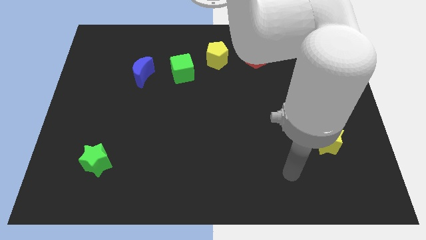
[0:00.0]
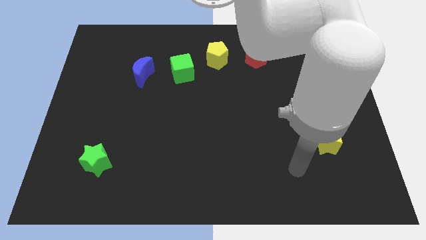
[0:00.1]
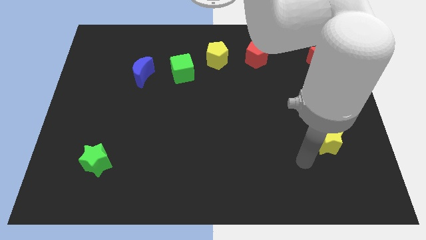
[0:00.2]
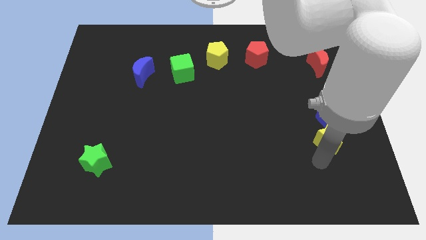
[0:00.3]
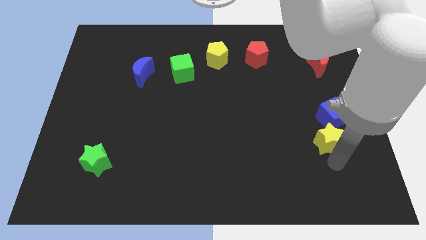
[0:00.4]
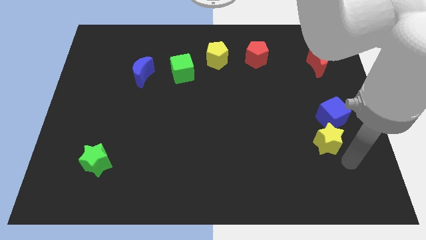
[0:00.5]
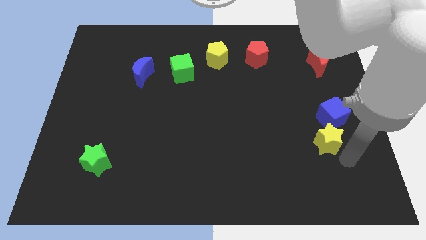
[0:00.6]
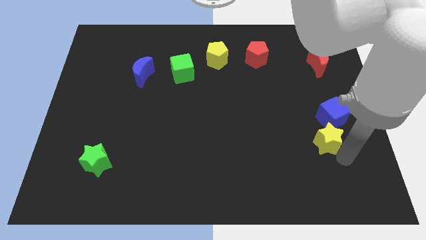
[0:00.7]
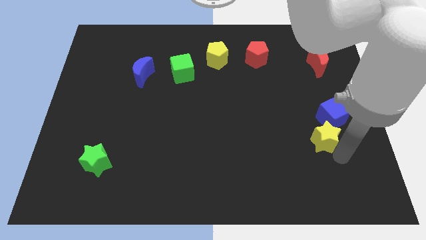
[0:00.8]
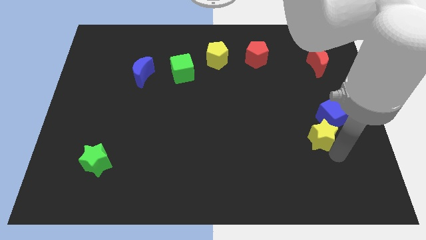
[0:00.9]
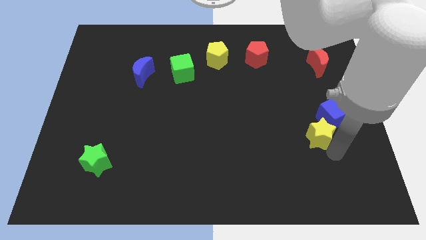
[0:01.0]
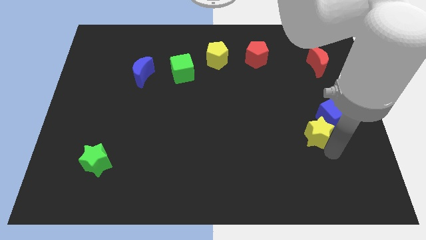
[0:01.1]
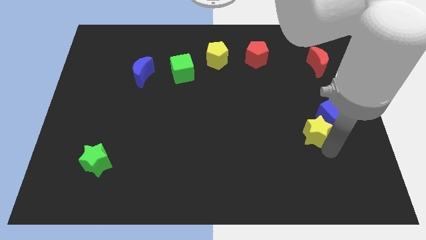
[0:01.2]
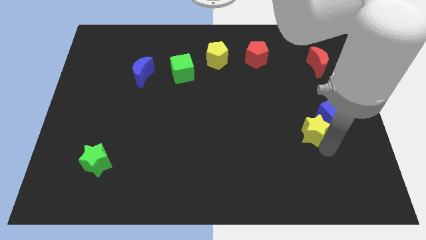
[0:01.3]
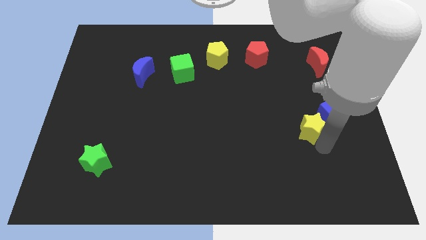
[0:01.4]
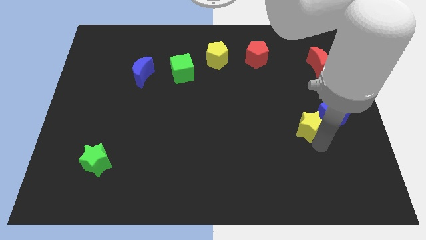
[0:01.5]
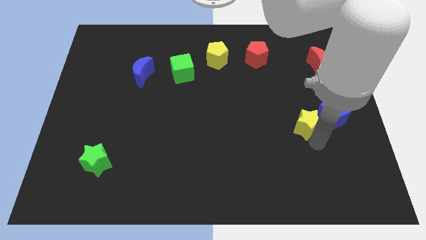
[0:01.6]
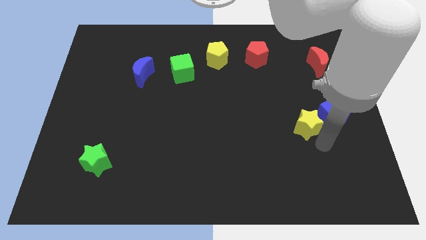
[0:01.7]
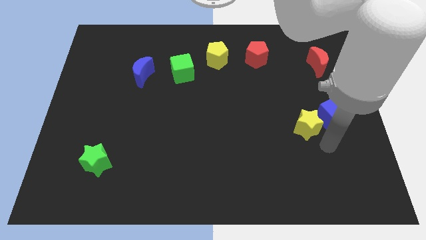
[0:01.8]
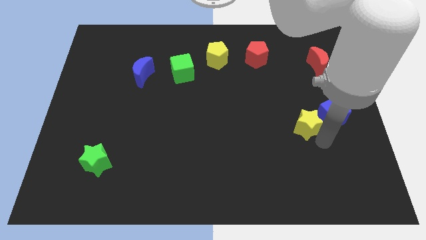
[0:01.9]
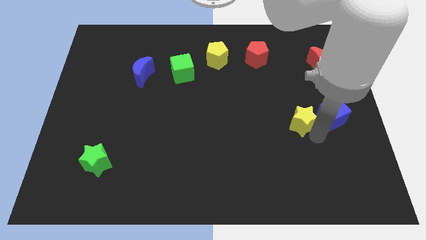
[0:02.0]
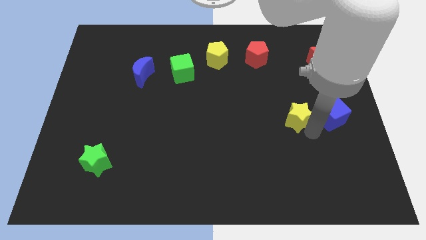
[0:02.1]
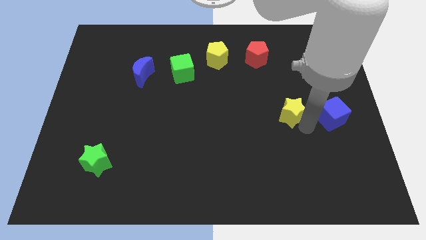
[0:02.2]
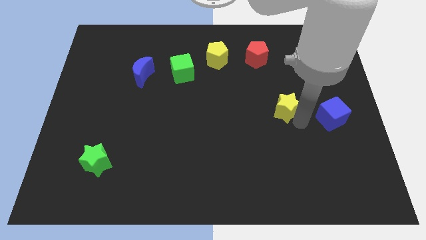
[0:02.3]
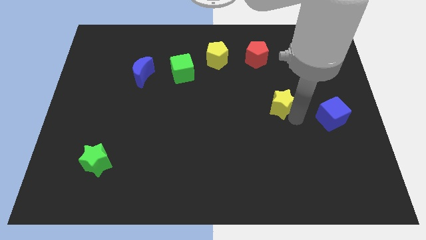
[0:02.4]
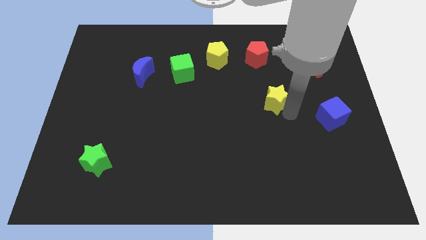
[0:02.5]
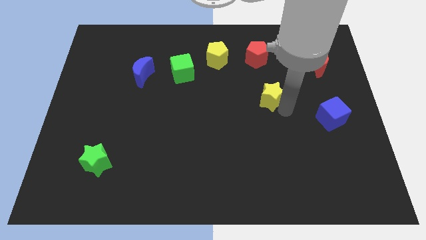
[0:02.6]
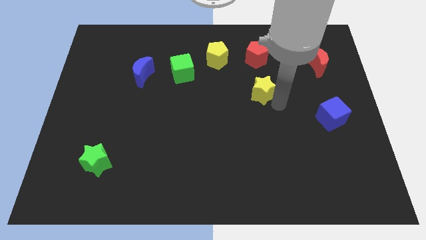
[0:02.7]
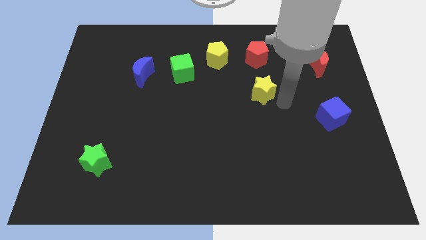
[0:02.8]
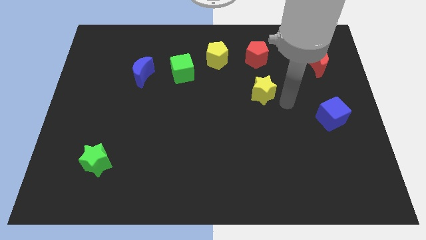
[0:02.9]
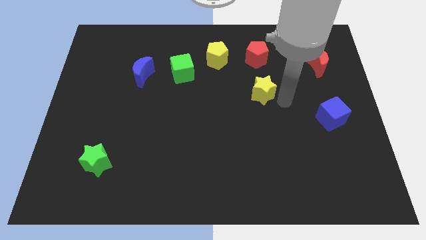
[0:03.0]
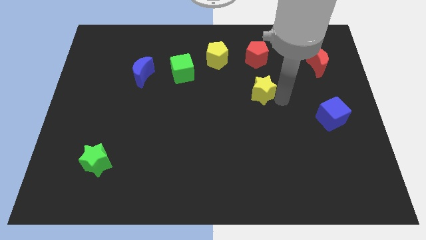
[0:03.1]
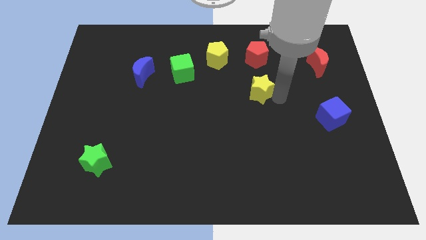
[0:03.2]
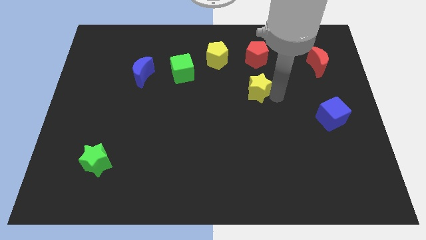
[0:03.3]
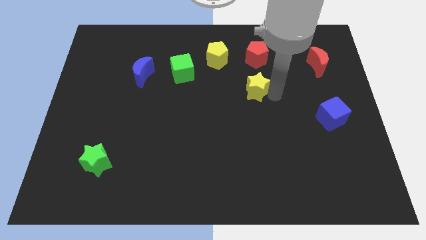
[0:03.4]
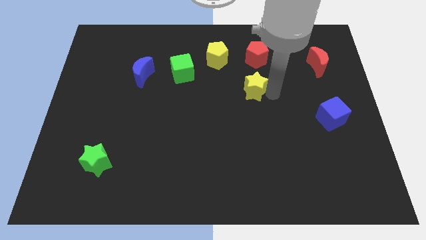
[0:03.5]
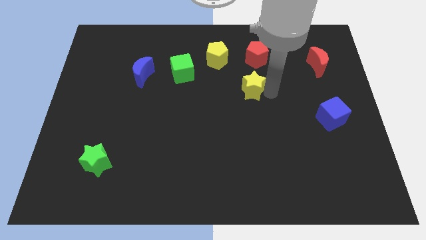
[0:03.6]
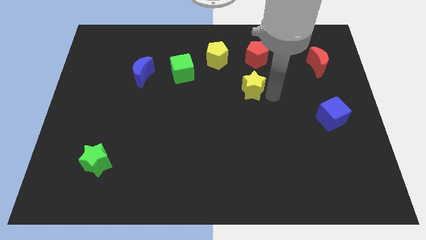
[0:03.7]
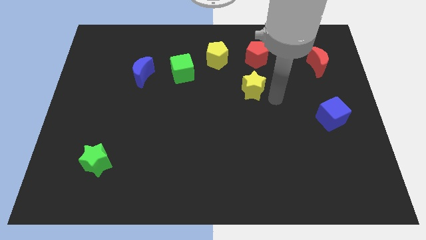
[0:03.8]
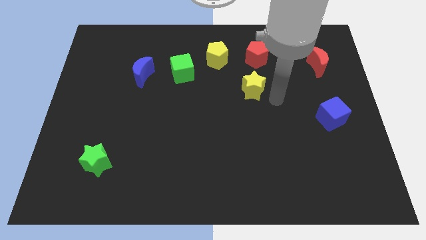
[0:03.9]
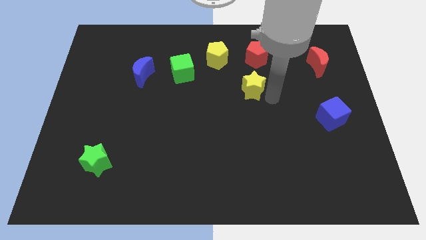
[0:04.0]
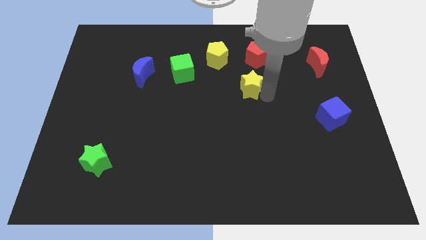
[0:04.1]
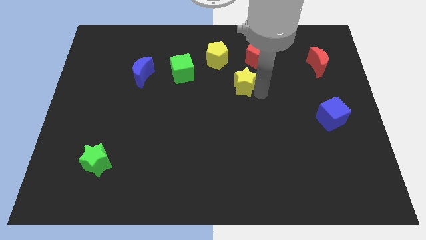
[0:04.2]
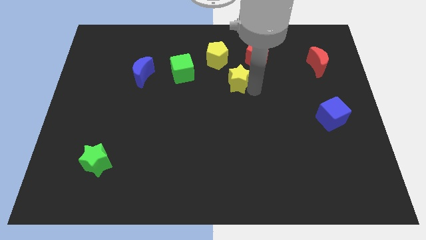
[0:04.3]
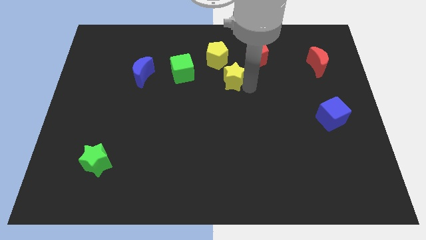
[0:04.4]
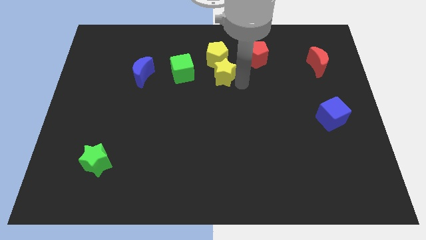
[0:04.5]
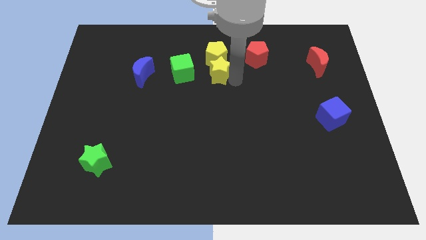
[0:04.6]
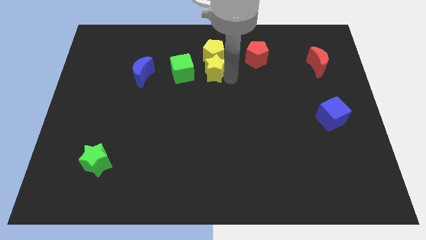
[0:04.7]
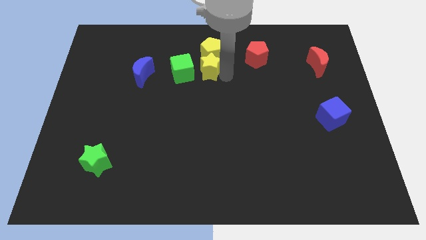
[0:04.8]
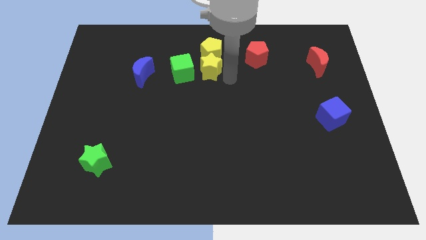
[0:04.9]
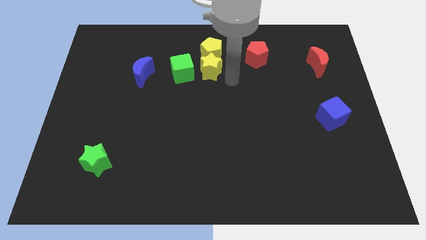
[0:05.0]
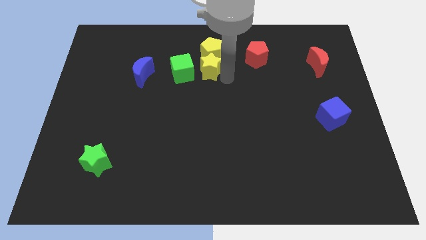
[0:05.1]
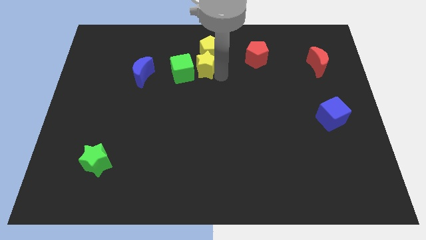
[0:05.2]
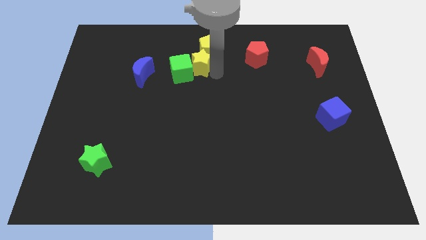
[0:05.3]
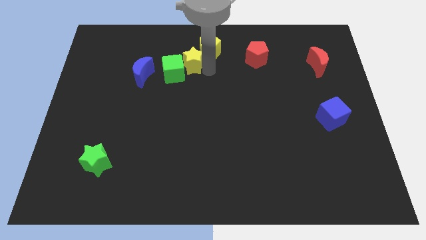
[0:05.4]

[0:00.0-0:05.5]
move the yellow star just left of the yellow pentagon

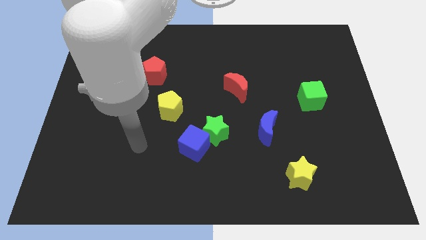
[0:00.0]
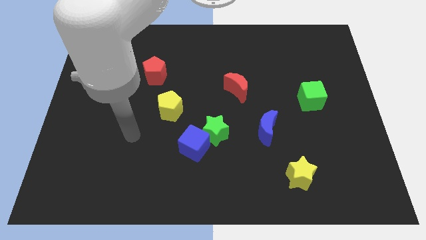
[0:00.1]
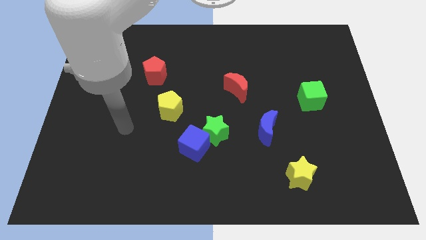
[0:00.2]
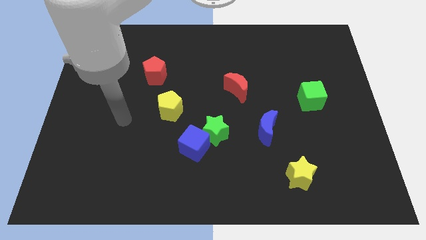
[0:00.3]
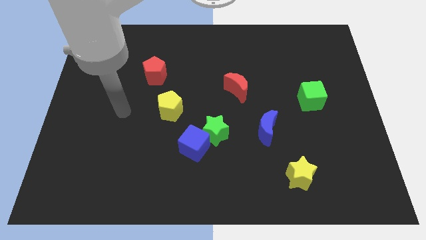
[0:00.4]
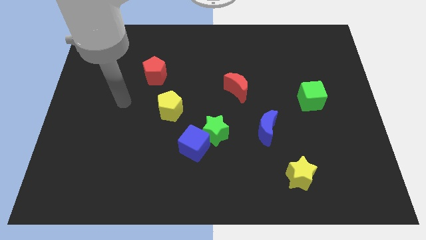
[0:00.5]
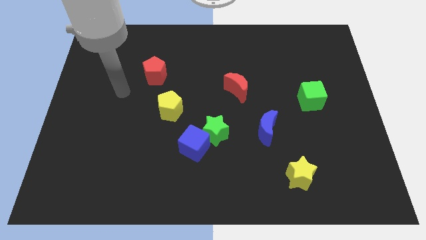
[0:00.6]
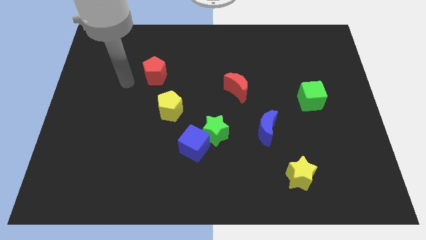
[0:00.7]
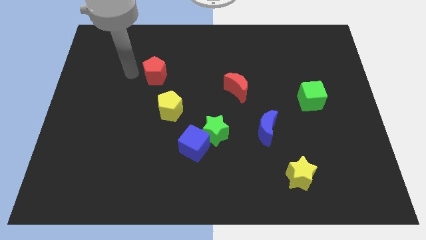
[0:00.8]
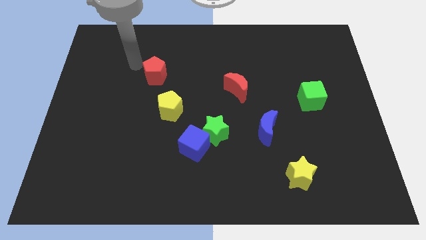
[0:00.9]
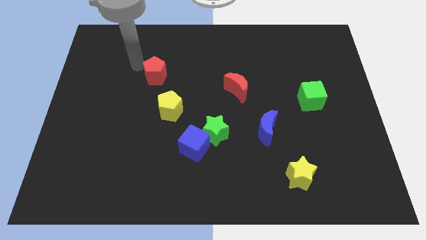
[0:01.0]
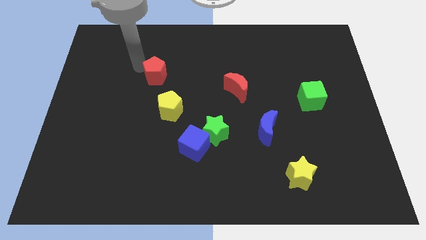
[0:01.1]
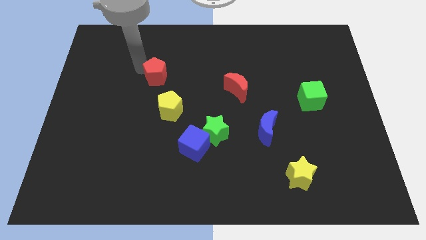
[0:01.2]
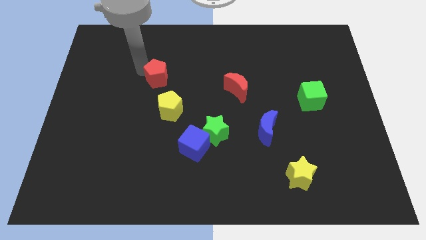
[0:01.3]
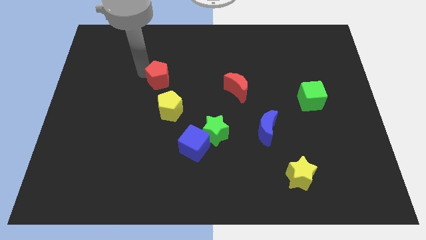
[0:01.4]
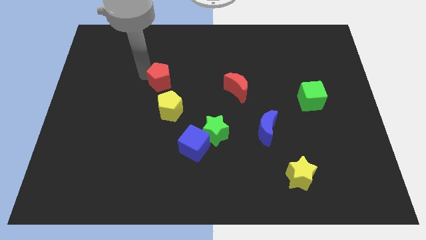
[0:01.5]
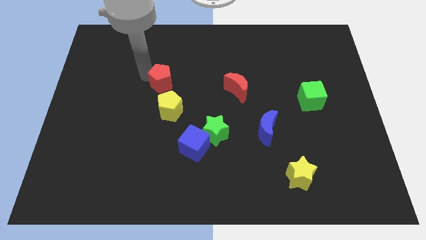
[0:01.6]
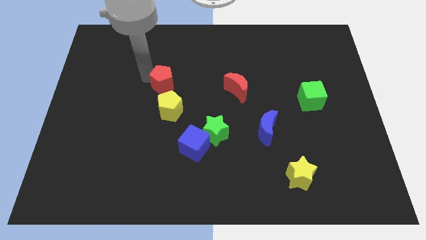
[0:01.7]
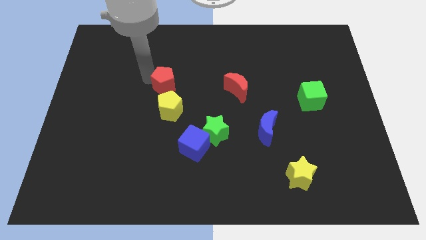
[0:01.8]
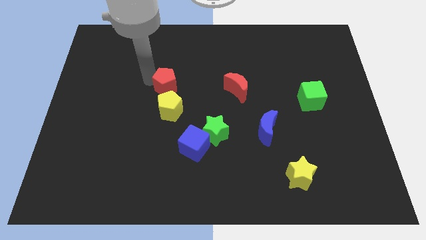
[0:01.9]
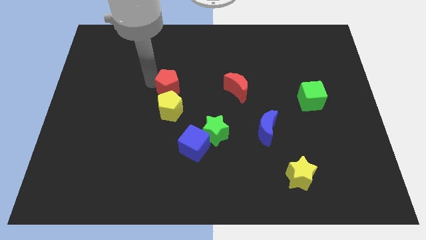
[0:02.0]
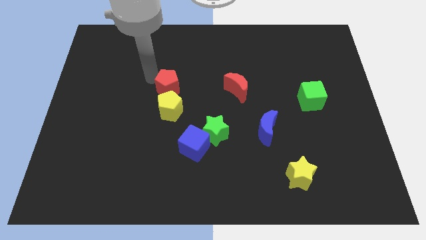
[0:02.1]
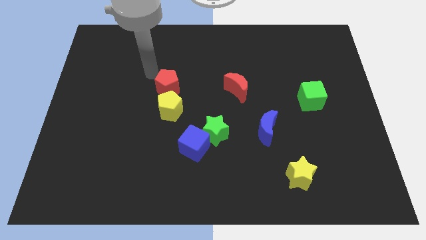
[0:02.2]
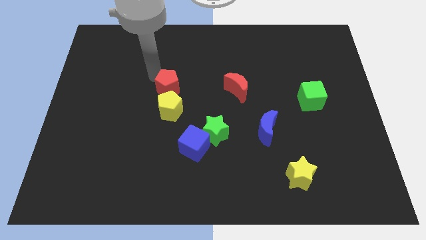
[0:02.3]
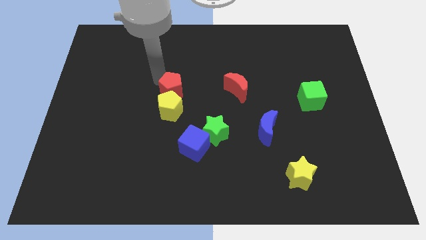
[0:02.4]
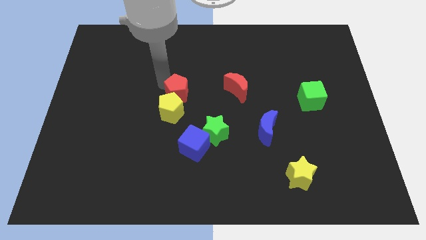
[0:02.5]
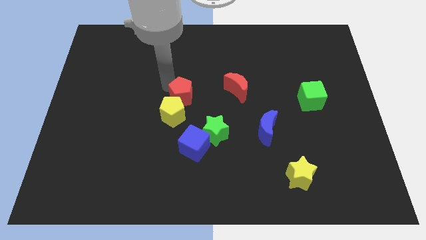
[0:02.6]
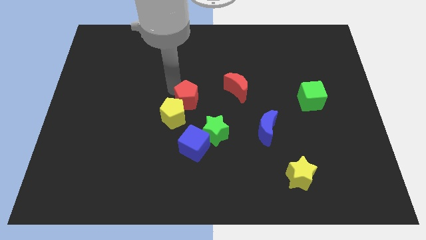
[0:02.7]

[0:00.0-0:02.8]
move the red pentagon to the top left side of the green star
